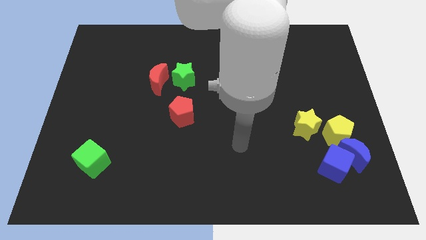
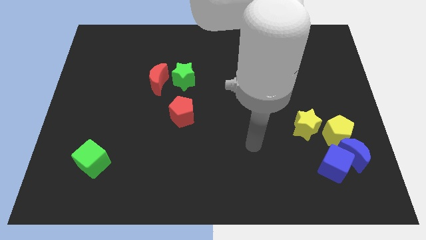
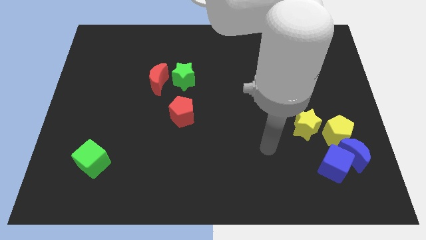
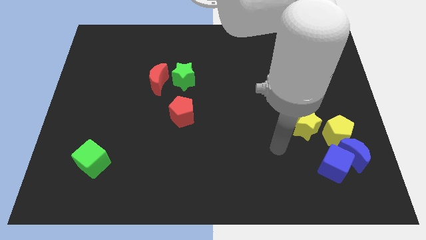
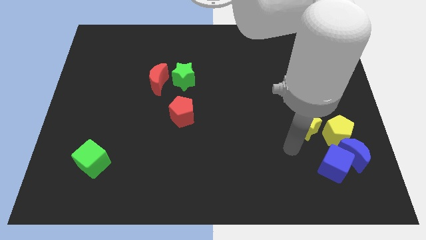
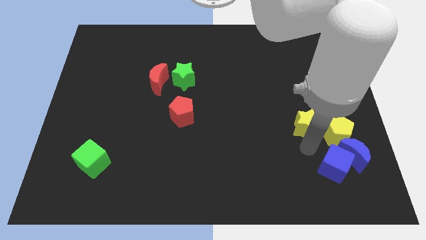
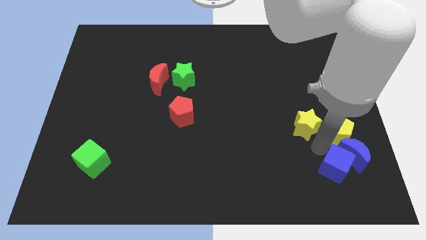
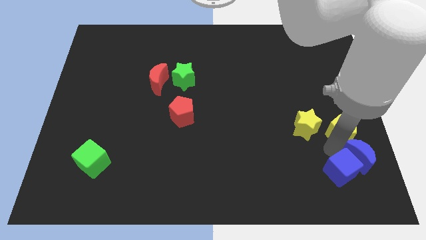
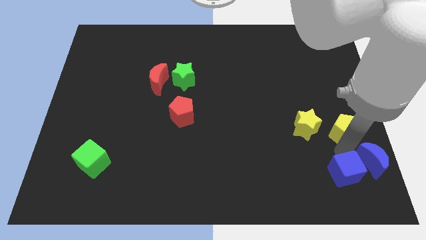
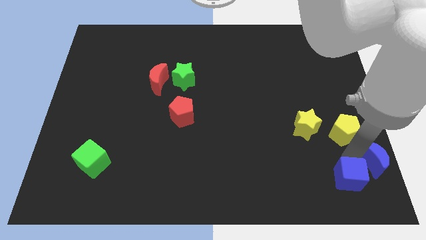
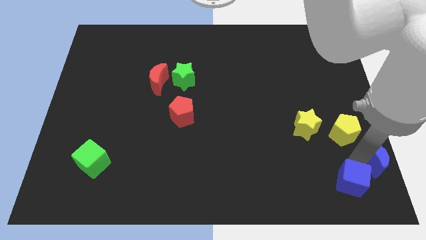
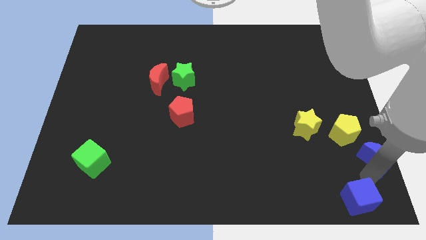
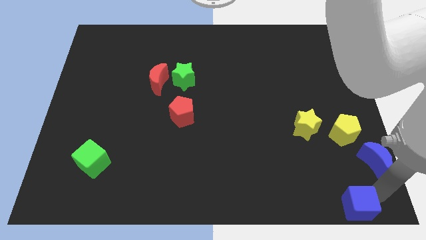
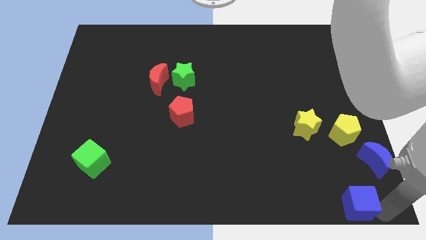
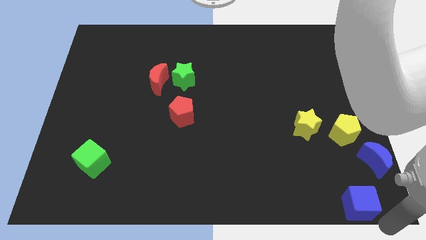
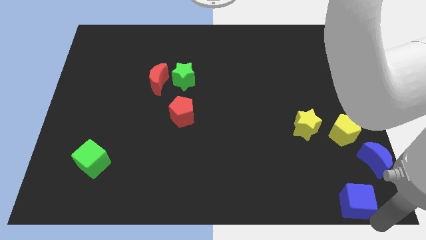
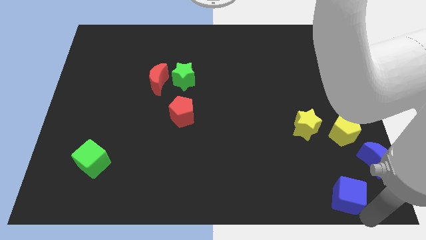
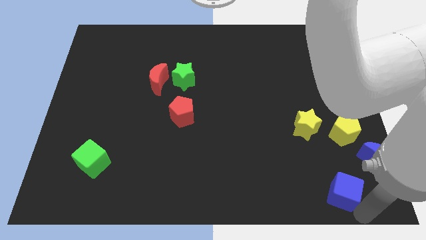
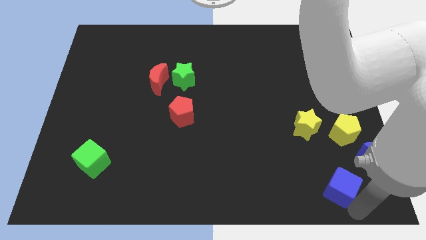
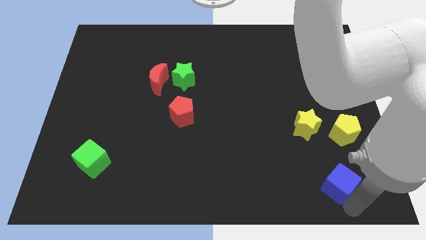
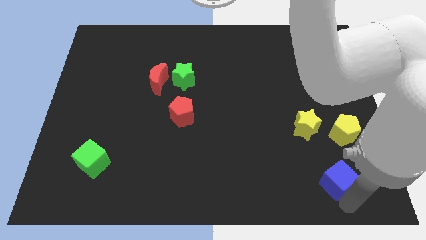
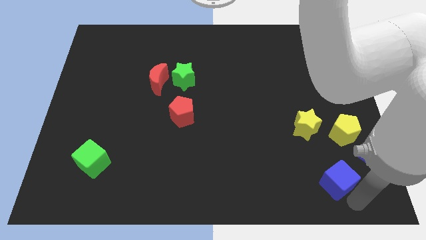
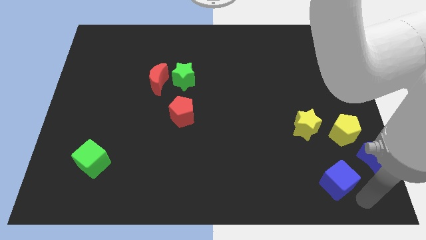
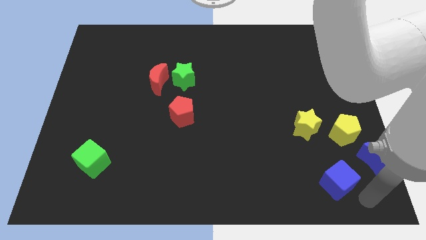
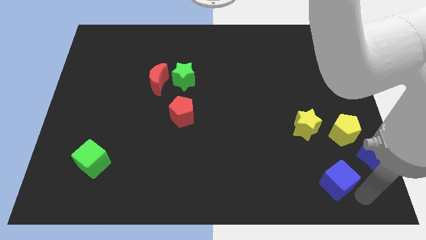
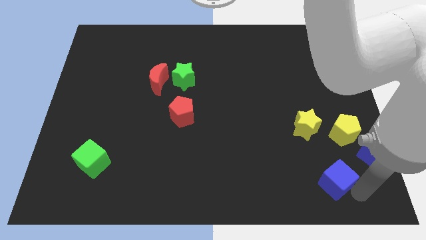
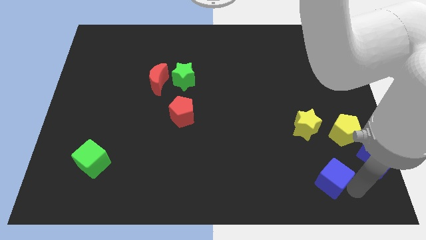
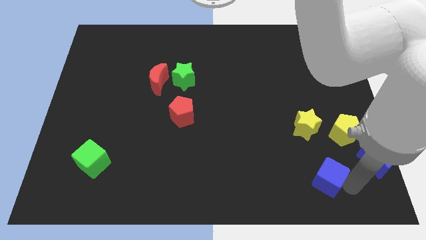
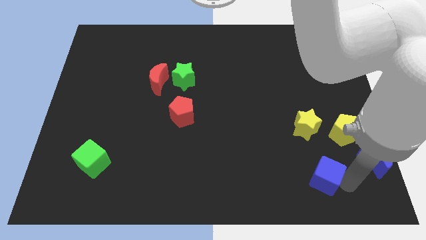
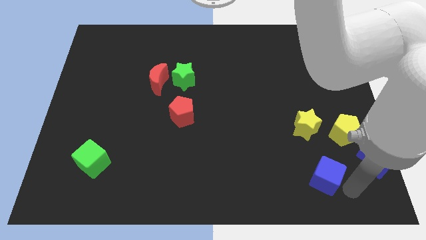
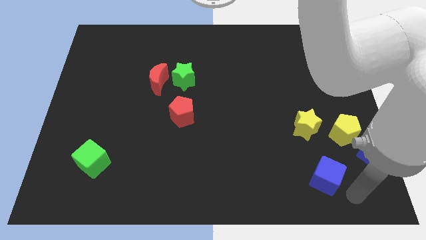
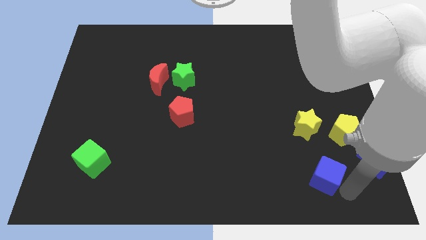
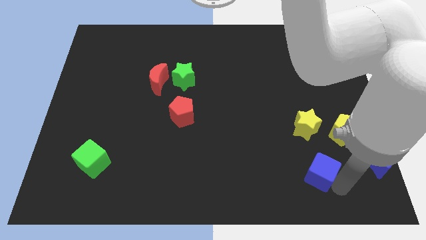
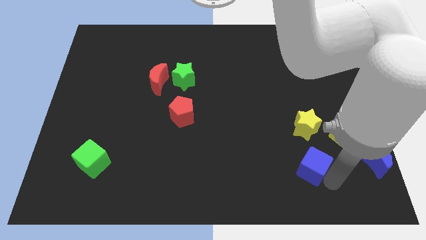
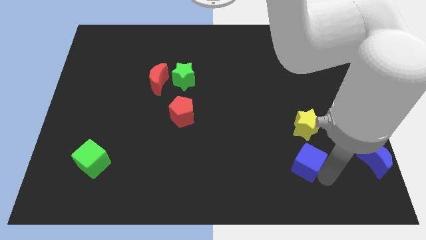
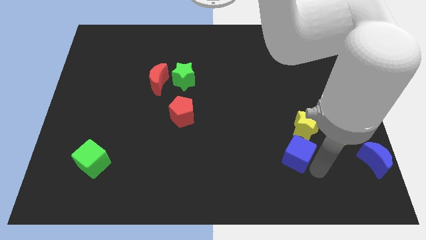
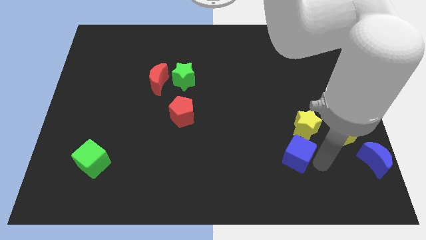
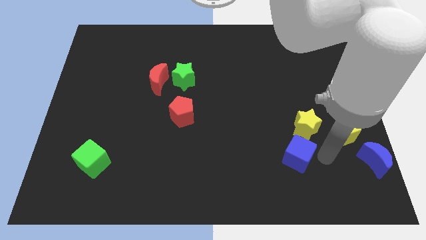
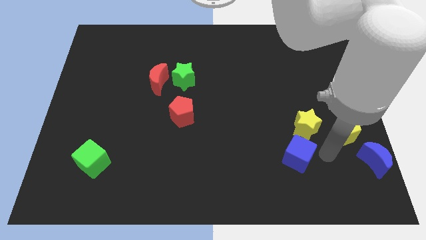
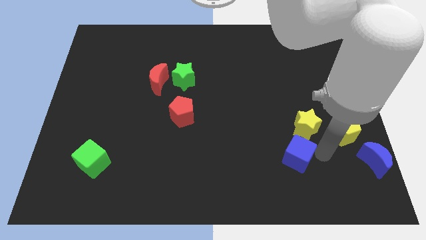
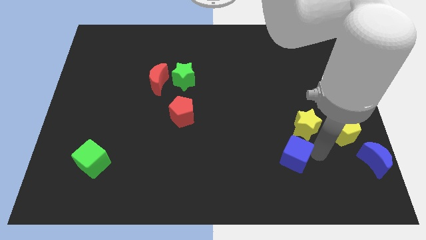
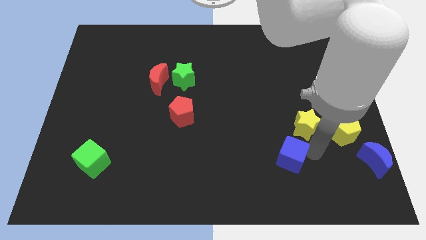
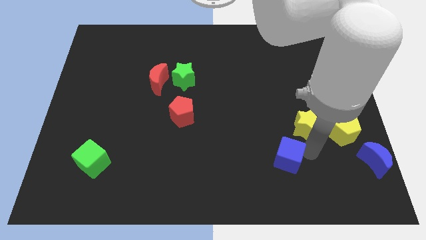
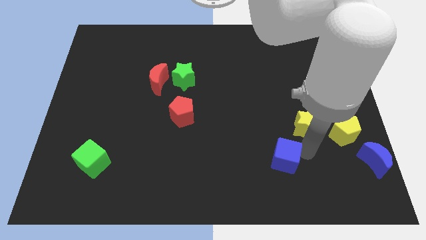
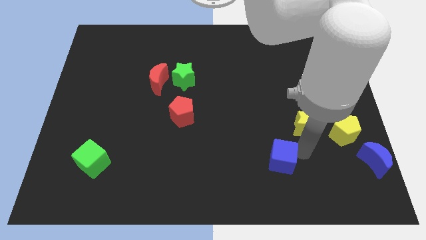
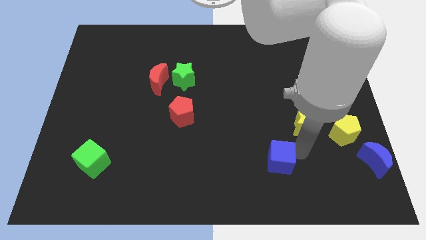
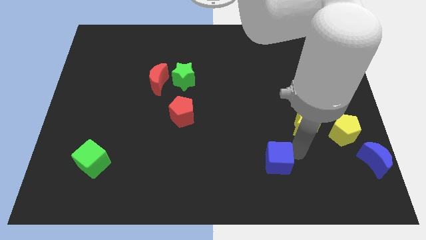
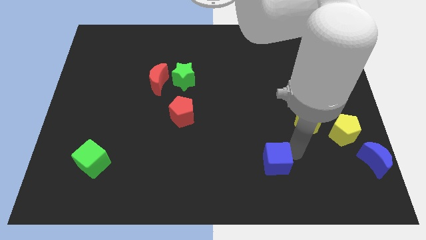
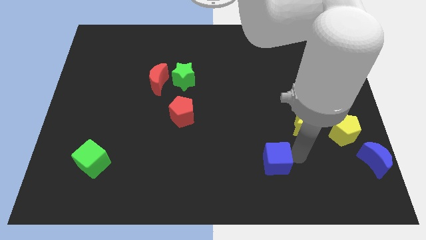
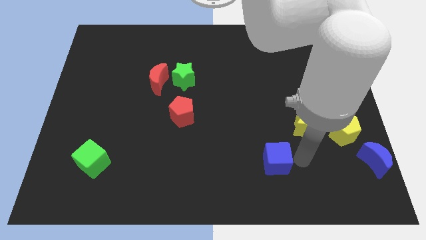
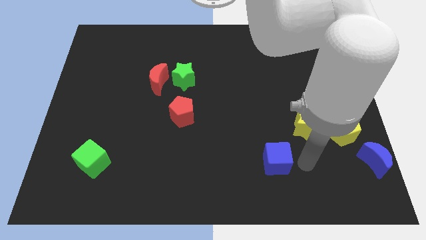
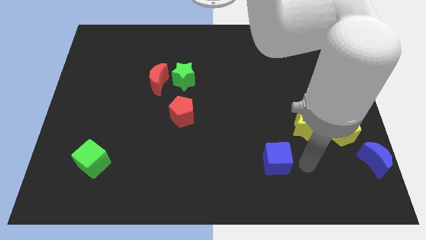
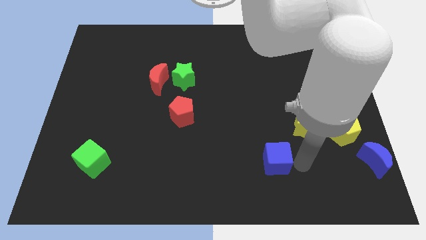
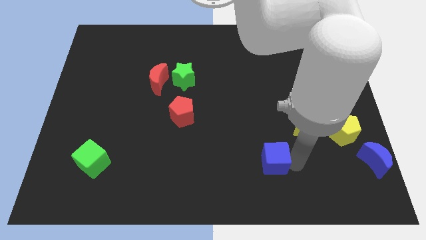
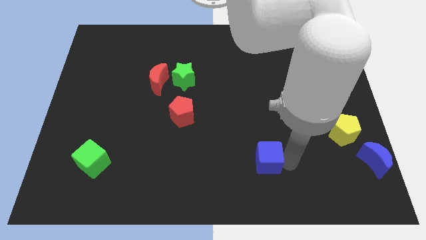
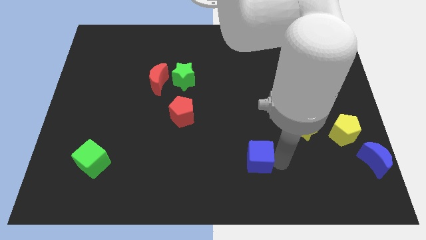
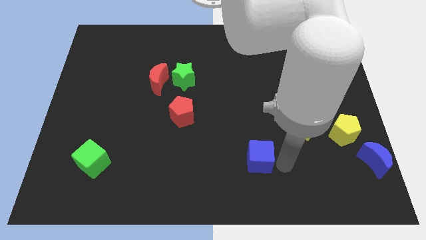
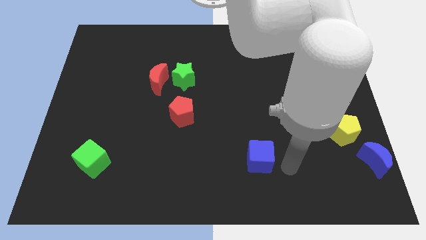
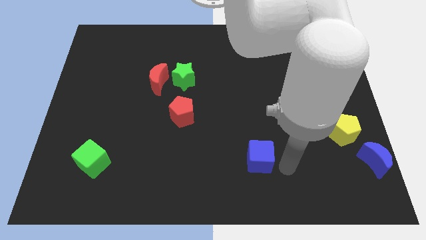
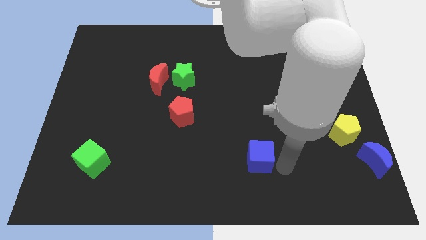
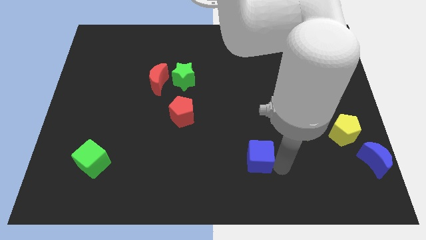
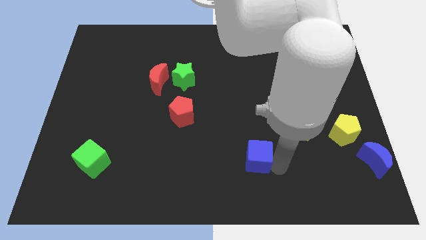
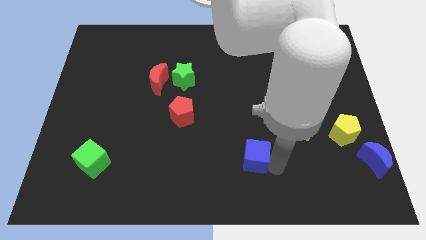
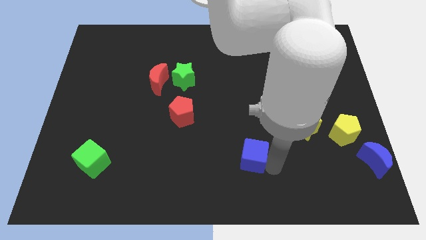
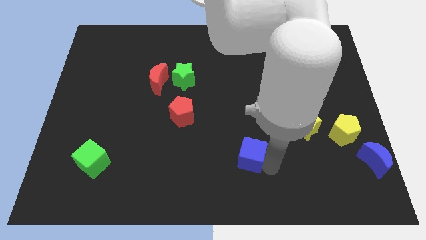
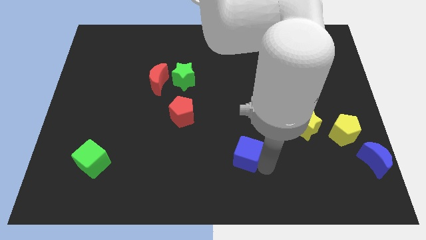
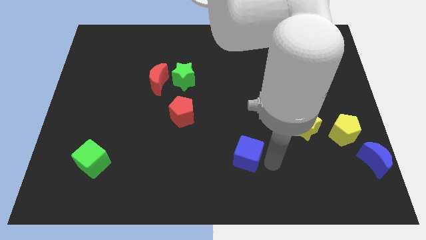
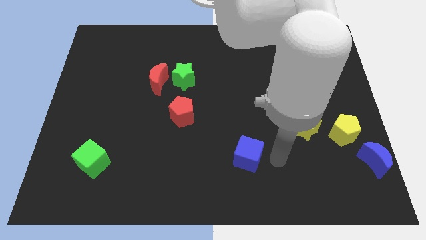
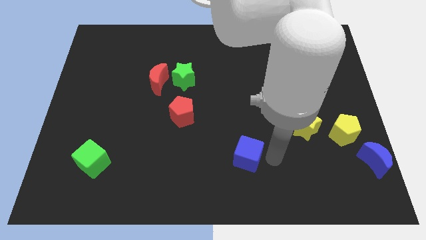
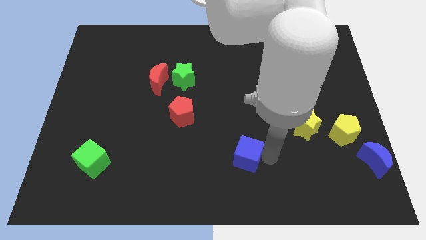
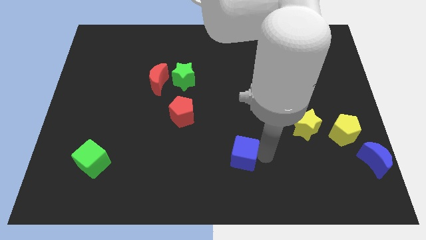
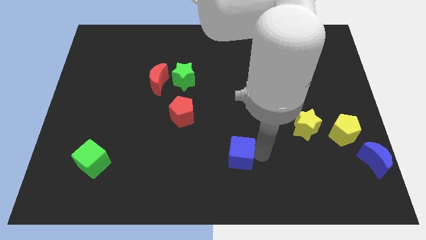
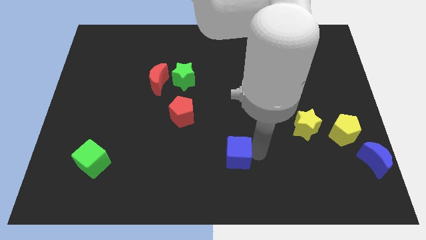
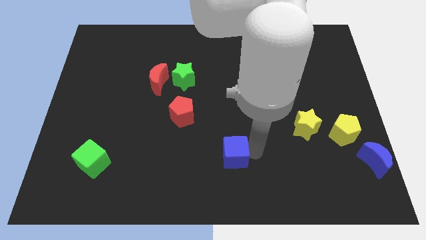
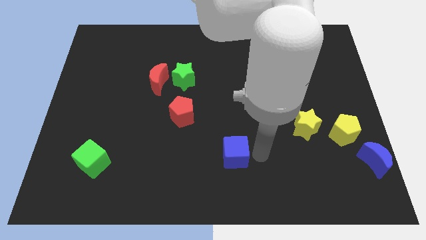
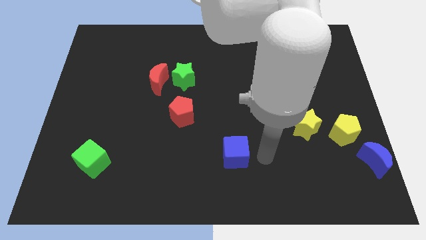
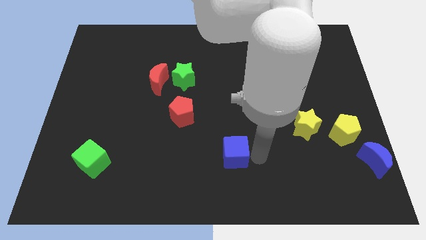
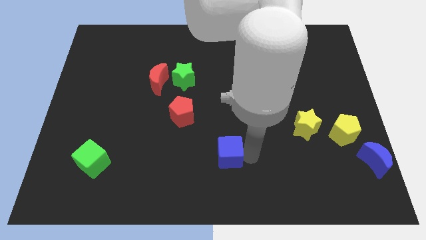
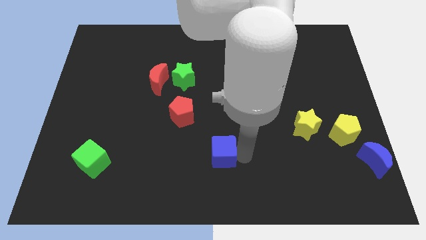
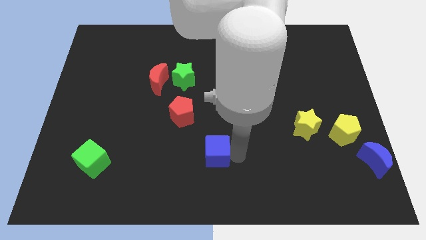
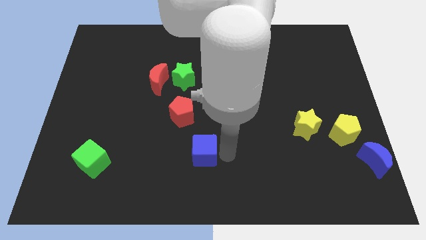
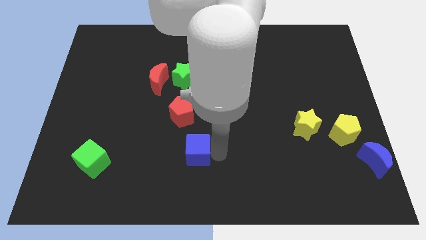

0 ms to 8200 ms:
push the blue cube to the bottom side of the red pentagon
